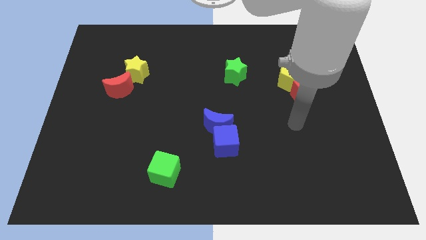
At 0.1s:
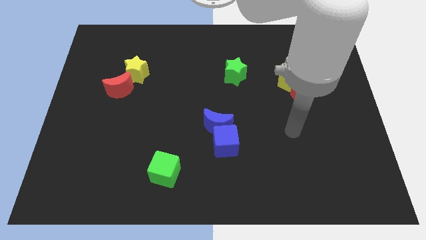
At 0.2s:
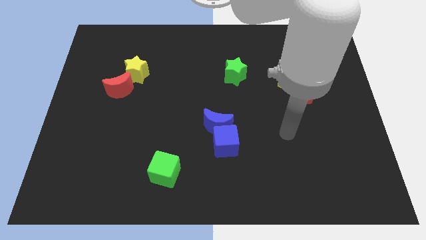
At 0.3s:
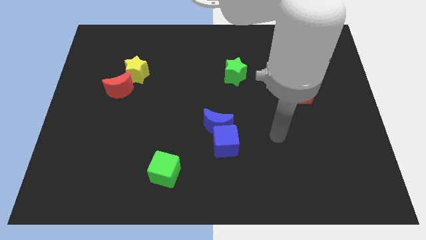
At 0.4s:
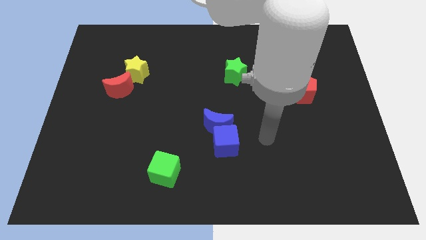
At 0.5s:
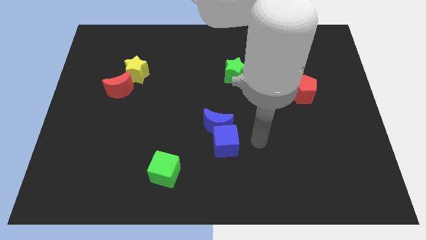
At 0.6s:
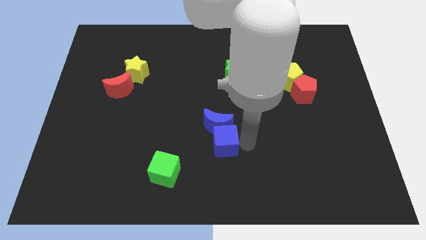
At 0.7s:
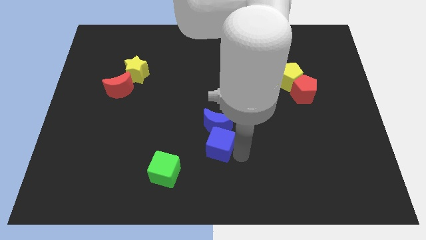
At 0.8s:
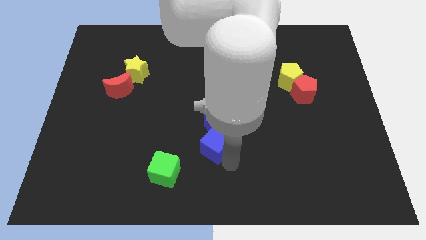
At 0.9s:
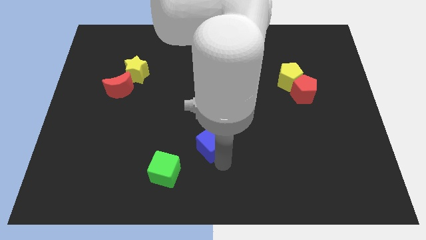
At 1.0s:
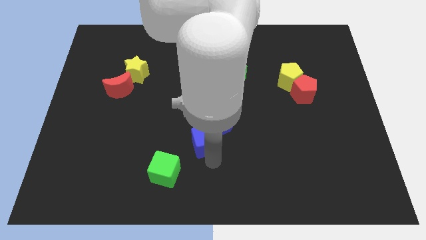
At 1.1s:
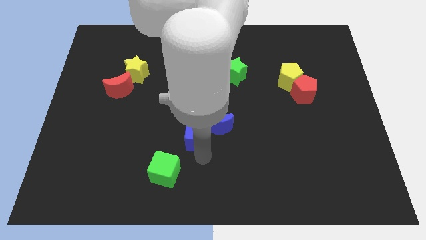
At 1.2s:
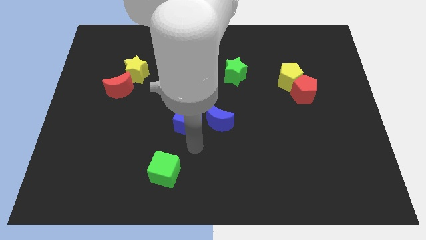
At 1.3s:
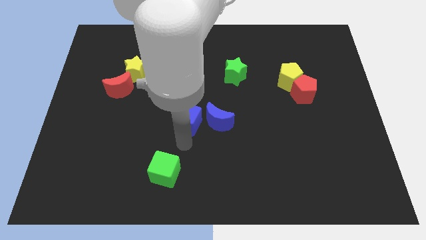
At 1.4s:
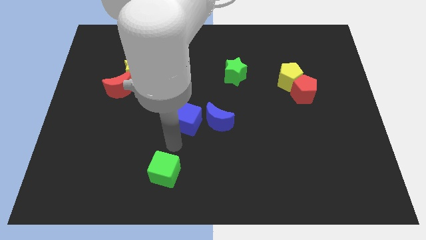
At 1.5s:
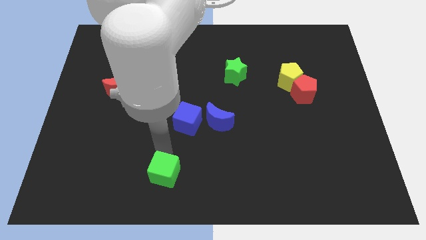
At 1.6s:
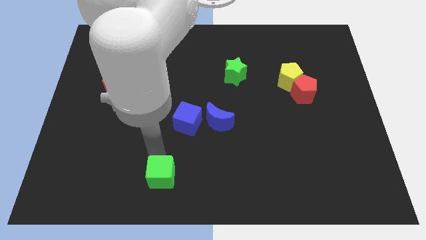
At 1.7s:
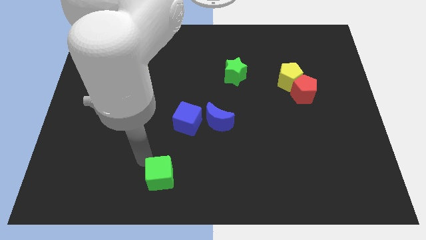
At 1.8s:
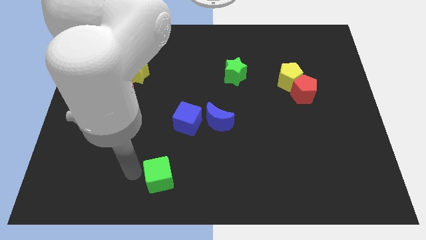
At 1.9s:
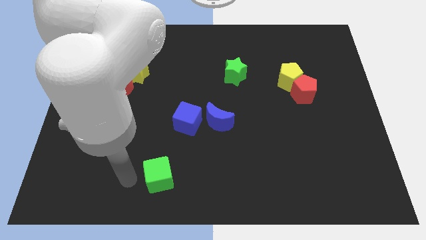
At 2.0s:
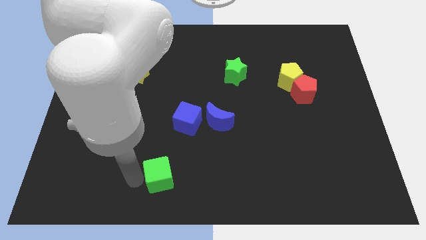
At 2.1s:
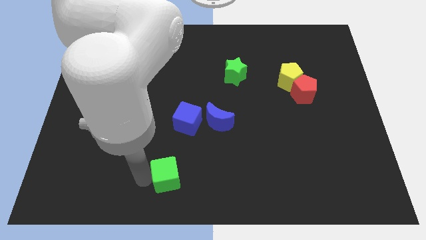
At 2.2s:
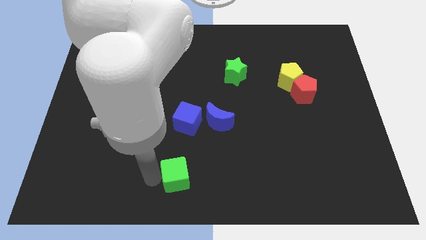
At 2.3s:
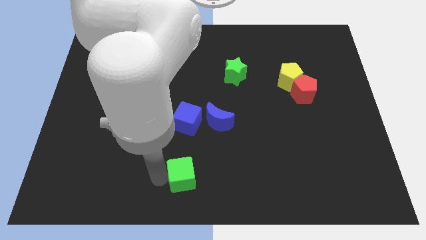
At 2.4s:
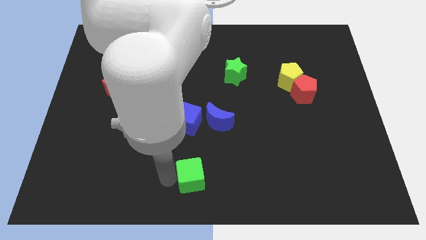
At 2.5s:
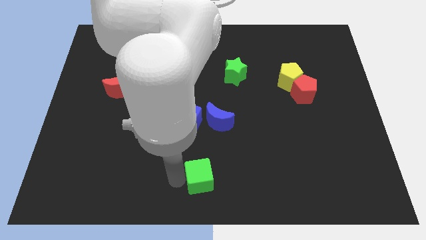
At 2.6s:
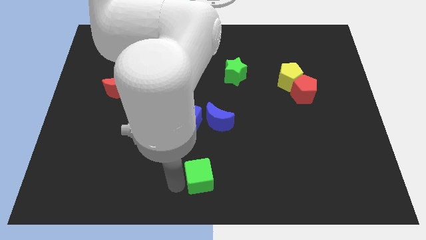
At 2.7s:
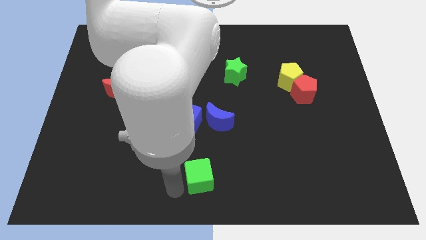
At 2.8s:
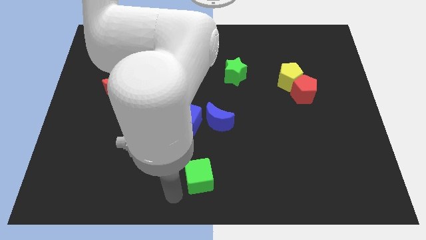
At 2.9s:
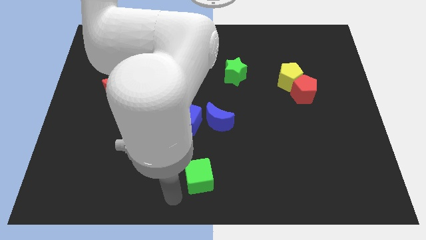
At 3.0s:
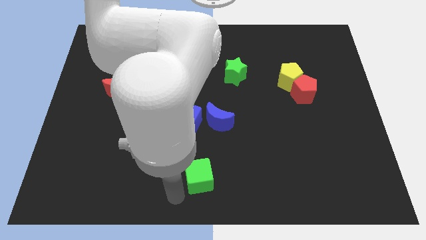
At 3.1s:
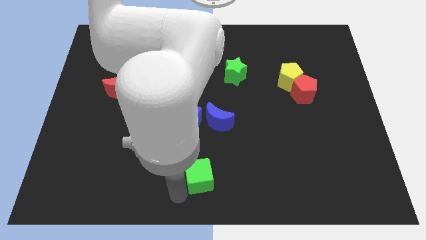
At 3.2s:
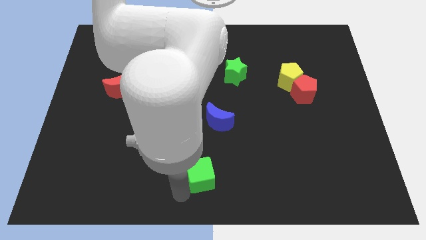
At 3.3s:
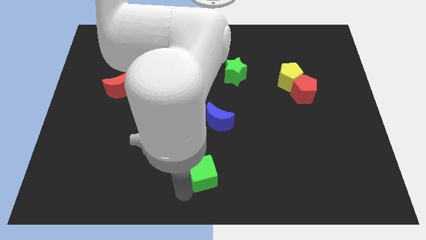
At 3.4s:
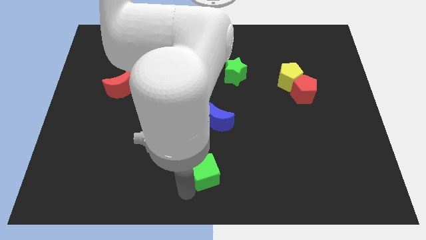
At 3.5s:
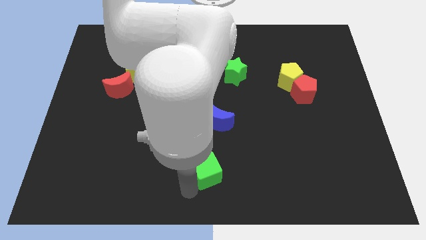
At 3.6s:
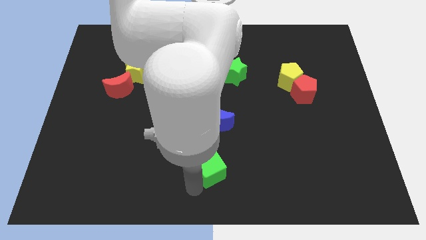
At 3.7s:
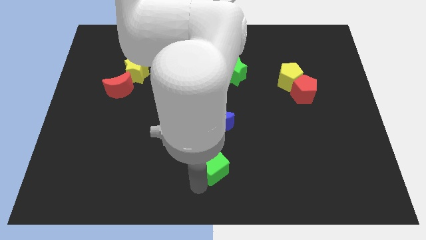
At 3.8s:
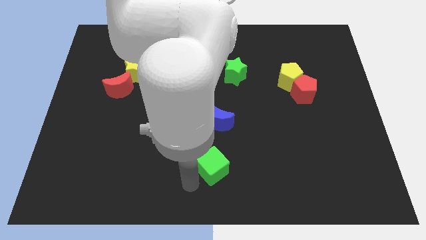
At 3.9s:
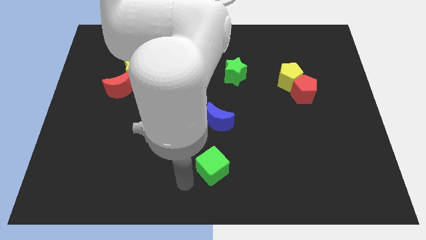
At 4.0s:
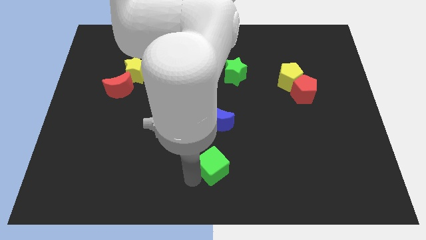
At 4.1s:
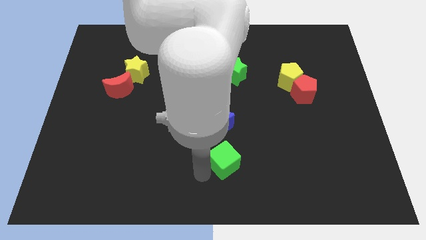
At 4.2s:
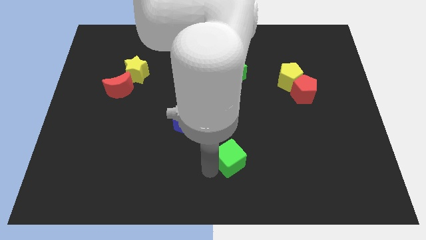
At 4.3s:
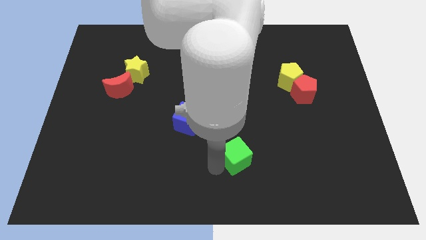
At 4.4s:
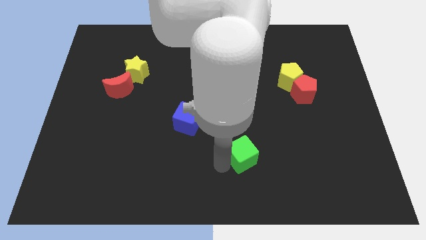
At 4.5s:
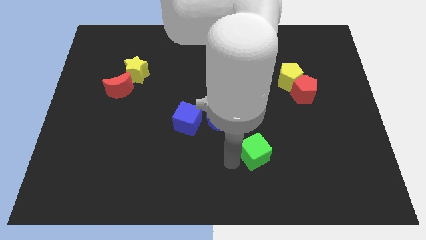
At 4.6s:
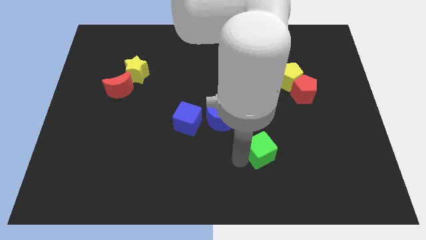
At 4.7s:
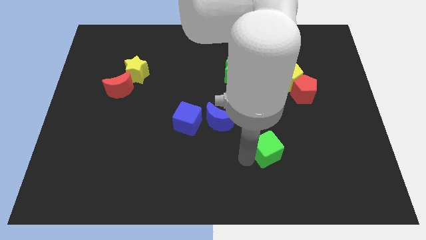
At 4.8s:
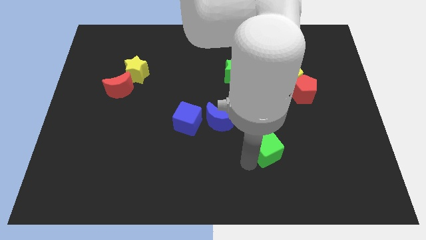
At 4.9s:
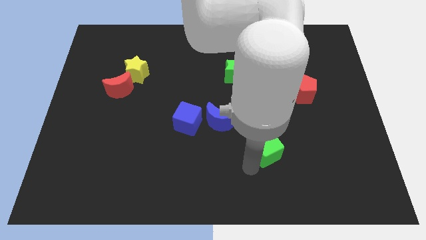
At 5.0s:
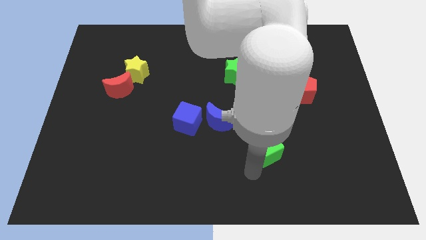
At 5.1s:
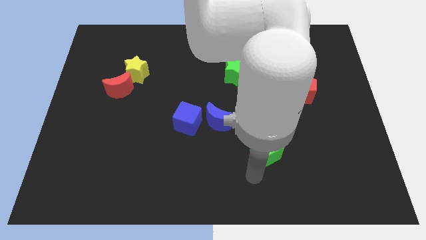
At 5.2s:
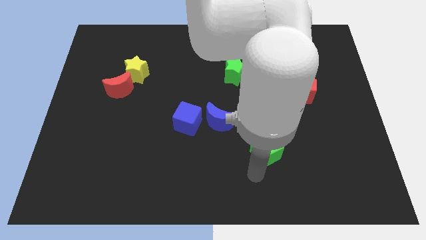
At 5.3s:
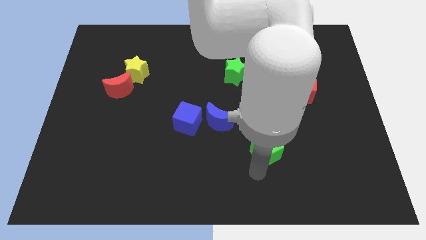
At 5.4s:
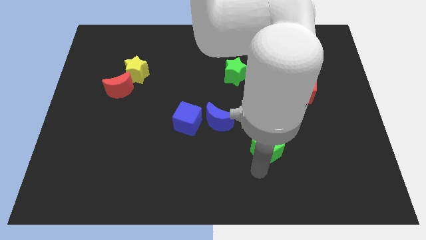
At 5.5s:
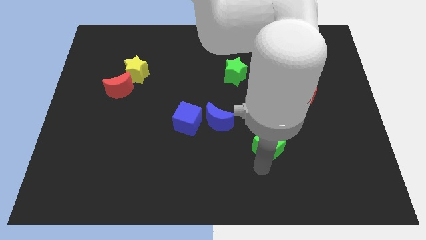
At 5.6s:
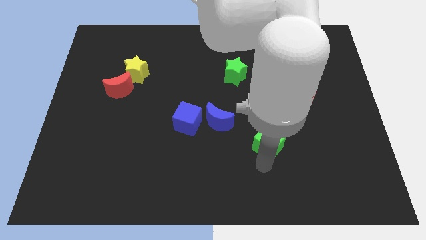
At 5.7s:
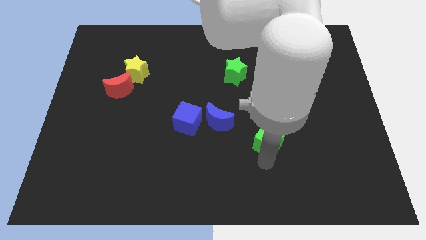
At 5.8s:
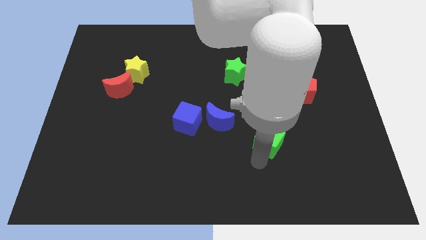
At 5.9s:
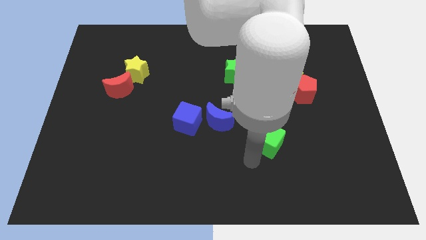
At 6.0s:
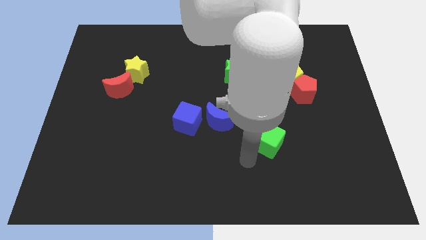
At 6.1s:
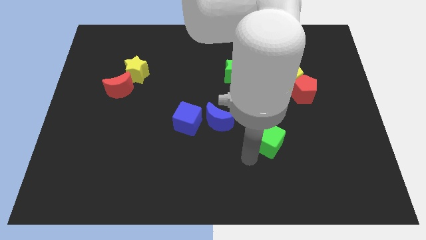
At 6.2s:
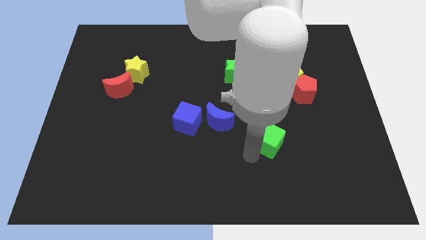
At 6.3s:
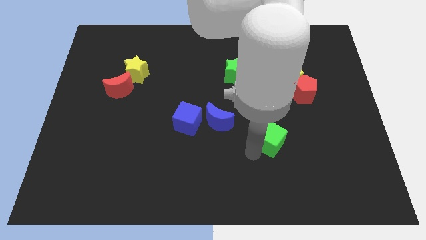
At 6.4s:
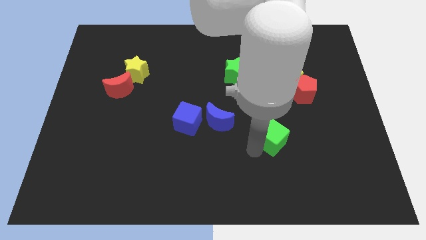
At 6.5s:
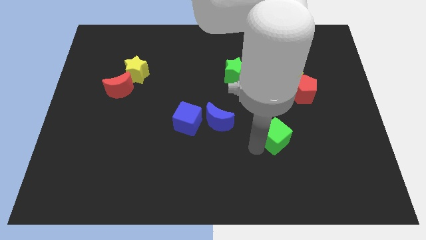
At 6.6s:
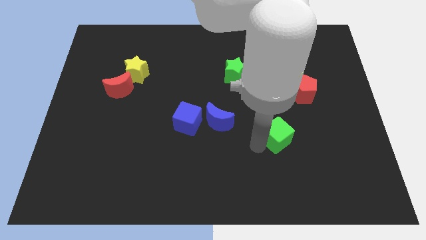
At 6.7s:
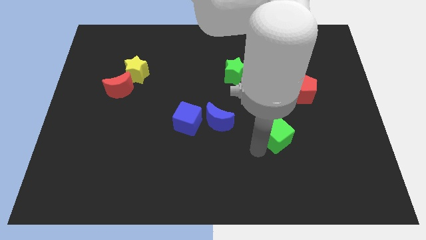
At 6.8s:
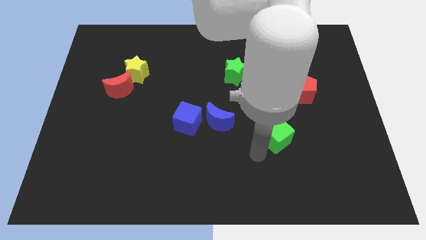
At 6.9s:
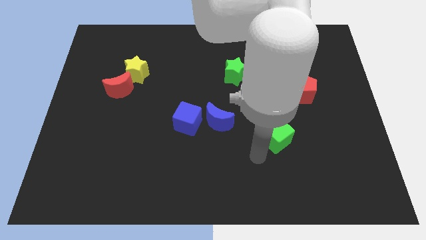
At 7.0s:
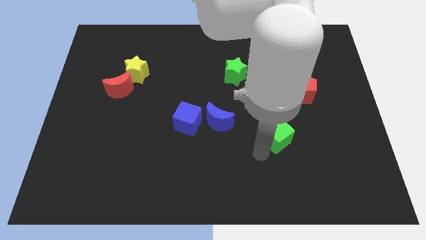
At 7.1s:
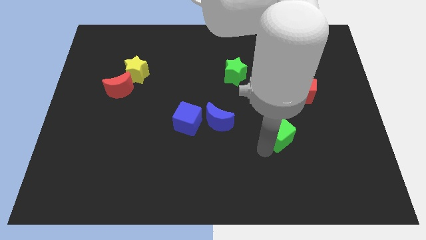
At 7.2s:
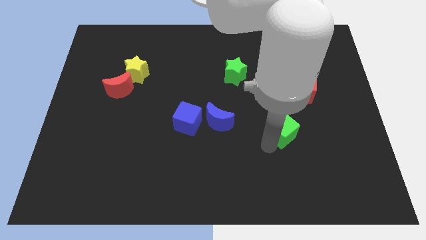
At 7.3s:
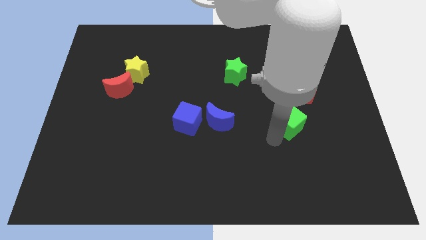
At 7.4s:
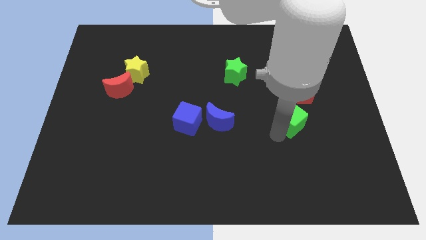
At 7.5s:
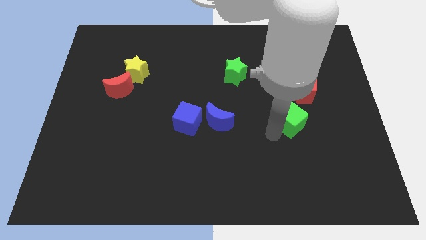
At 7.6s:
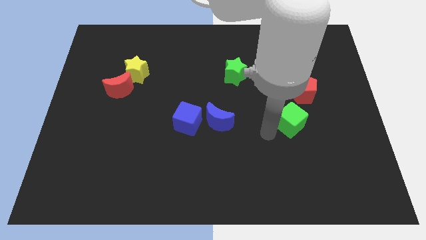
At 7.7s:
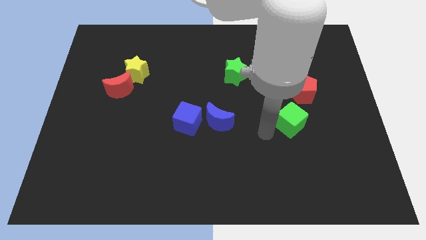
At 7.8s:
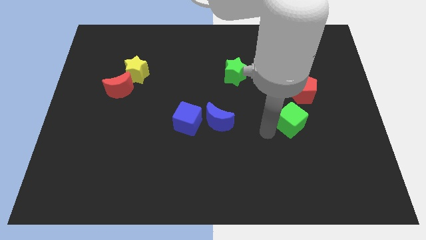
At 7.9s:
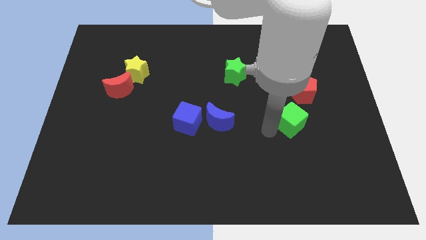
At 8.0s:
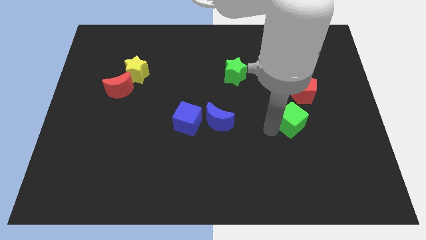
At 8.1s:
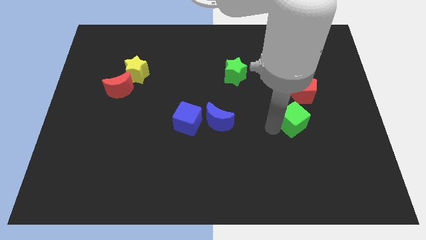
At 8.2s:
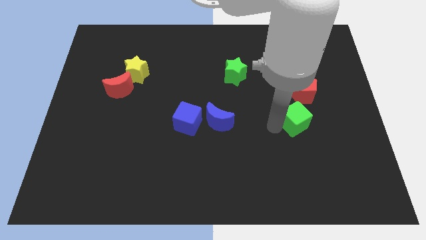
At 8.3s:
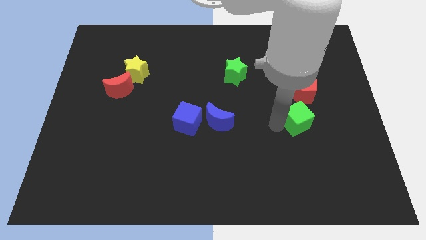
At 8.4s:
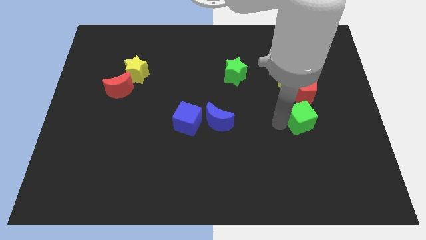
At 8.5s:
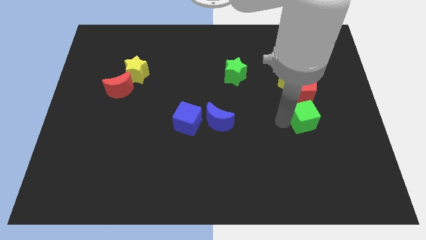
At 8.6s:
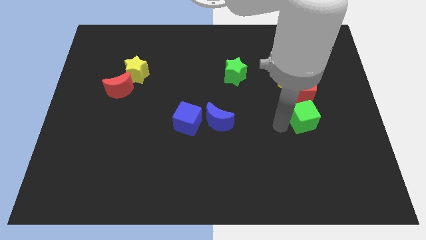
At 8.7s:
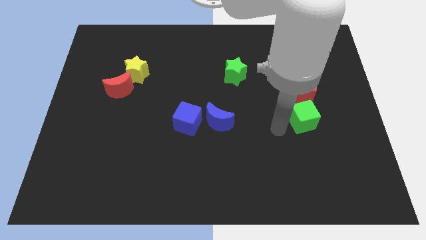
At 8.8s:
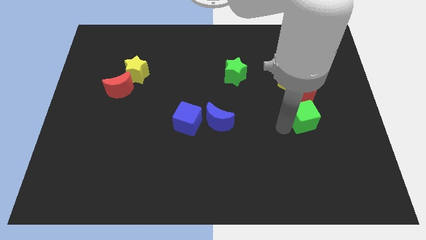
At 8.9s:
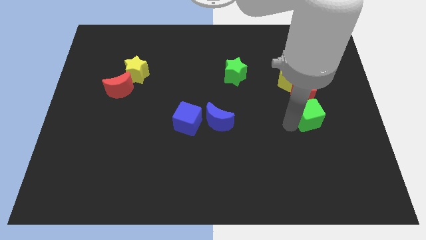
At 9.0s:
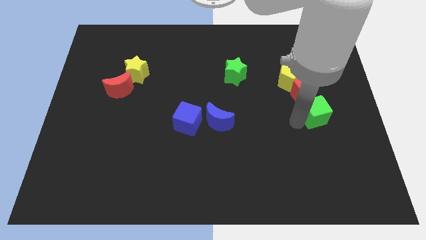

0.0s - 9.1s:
slide the green cube diagonally down and to the right of the red pentagon
